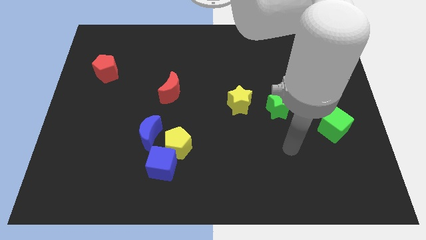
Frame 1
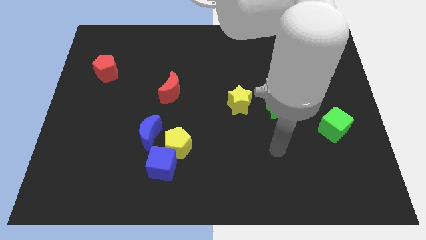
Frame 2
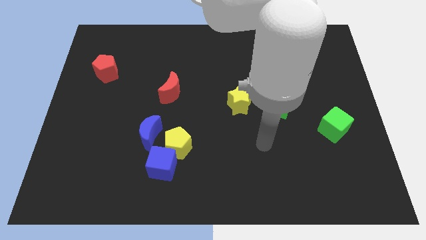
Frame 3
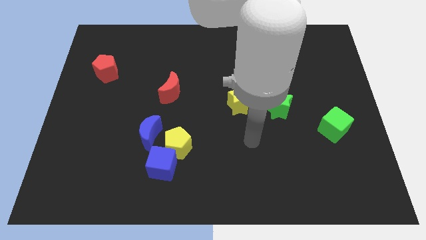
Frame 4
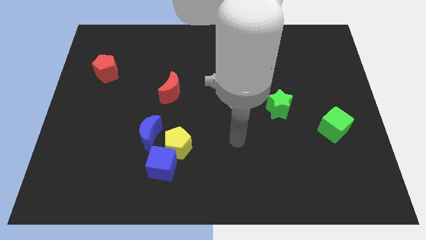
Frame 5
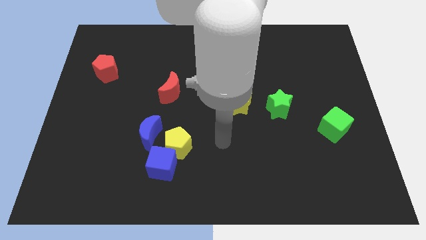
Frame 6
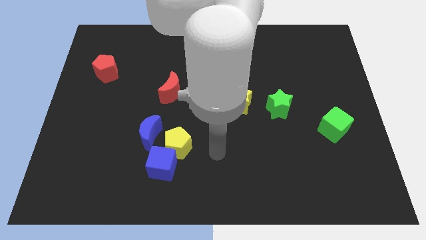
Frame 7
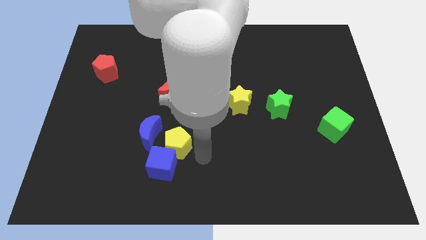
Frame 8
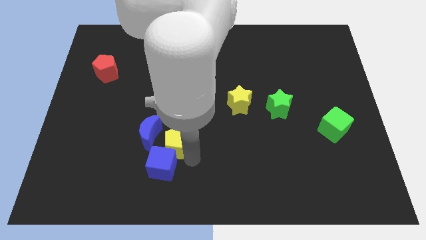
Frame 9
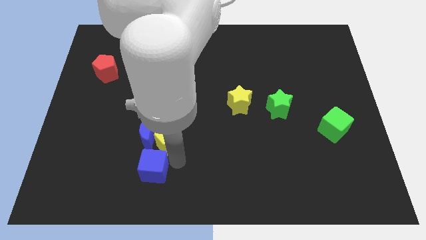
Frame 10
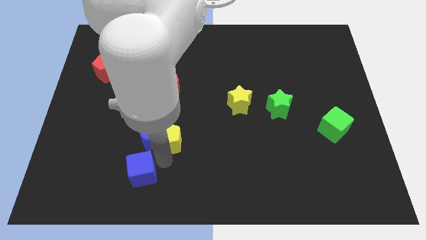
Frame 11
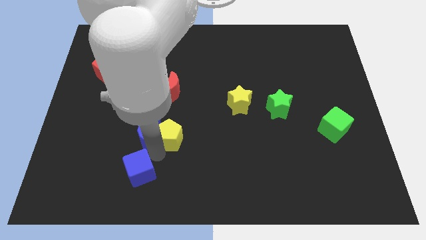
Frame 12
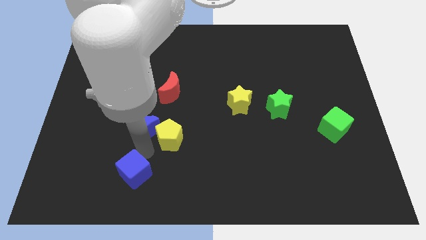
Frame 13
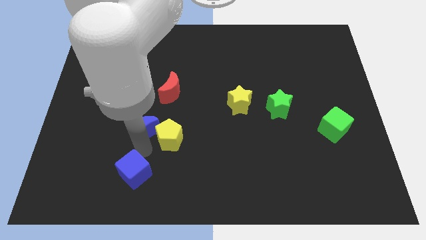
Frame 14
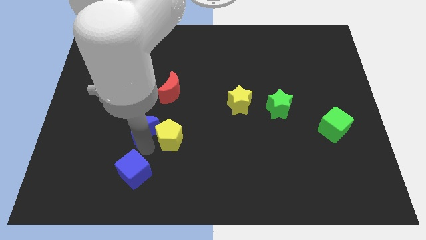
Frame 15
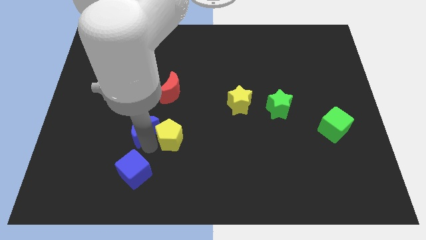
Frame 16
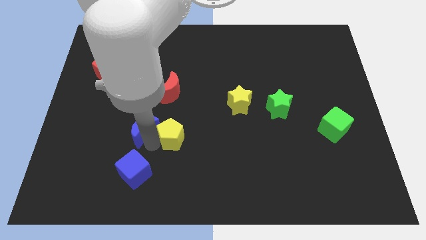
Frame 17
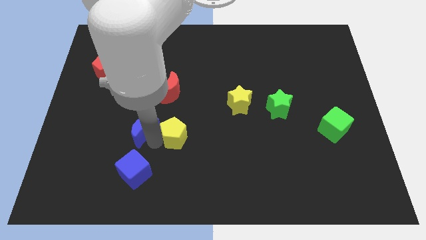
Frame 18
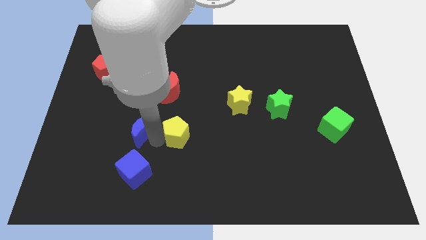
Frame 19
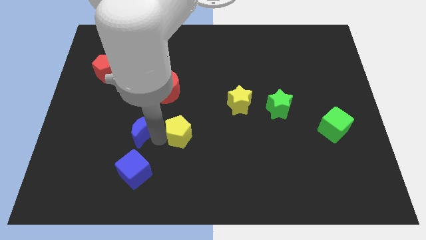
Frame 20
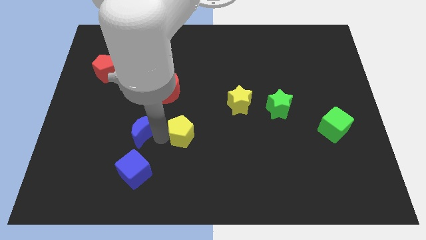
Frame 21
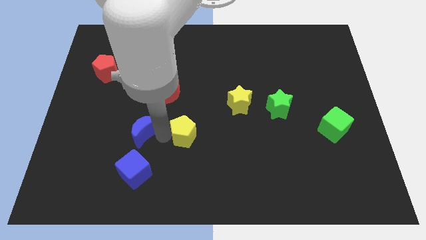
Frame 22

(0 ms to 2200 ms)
move the yellow pentagon away from the blue cube and blue moon

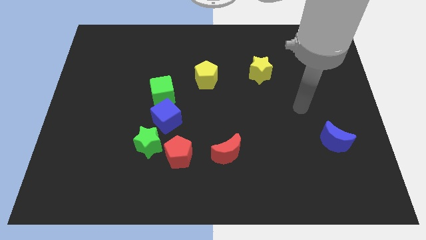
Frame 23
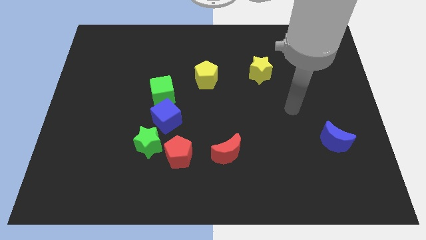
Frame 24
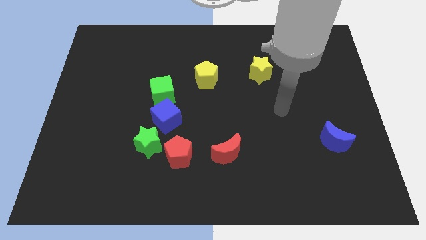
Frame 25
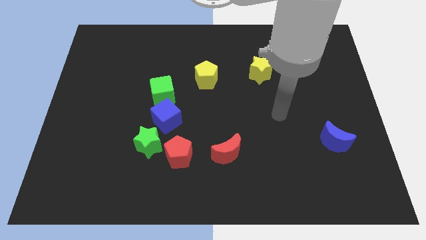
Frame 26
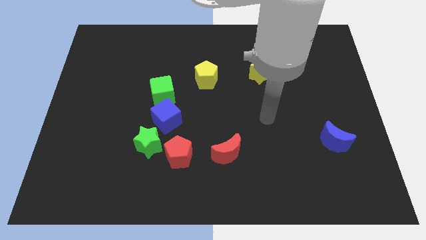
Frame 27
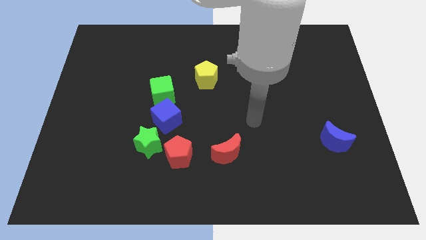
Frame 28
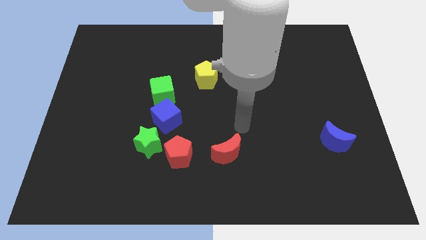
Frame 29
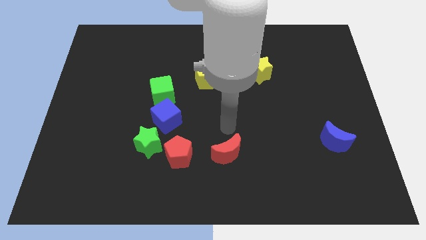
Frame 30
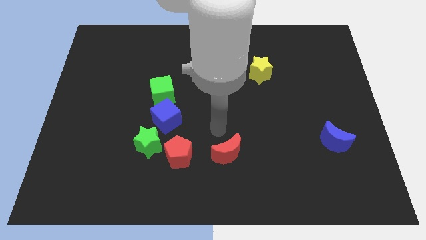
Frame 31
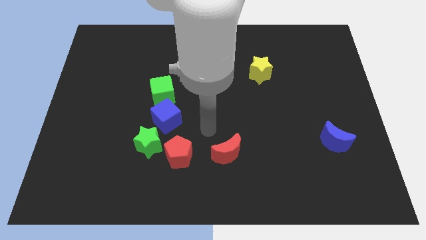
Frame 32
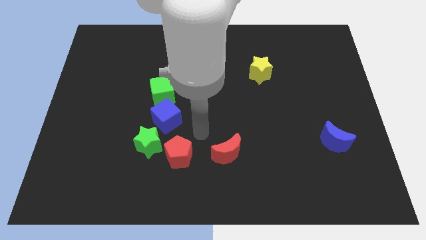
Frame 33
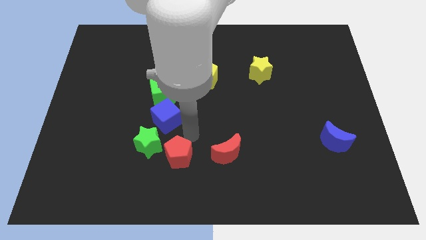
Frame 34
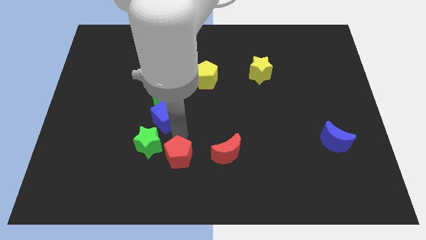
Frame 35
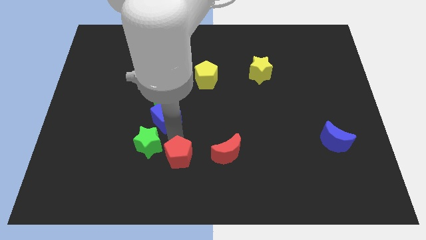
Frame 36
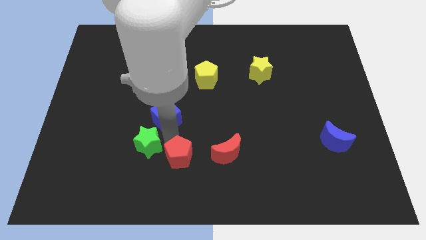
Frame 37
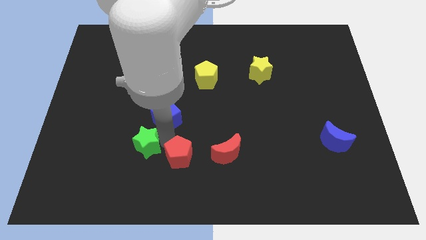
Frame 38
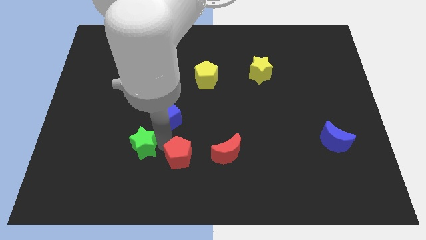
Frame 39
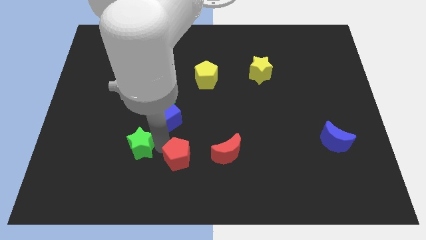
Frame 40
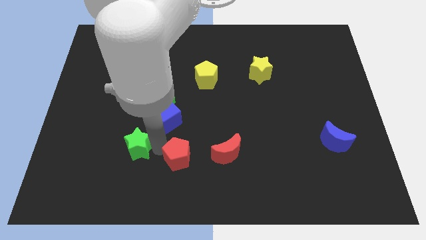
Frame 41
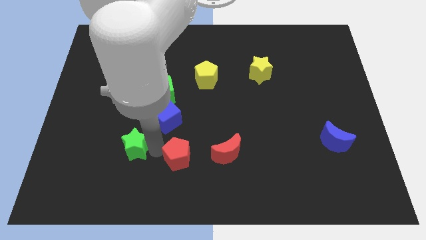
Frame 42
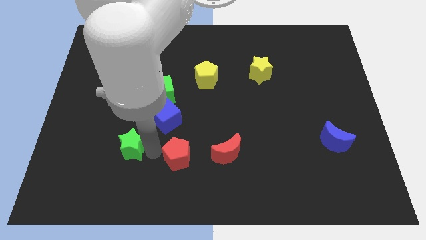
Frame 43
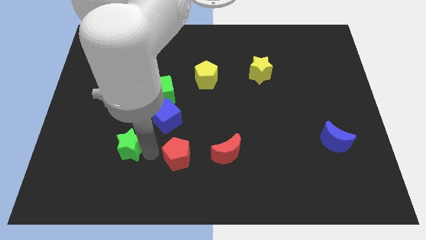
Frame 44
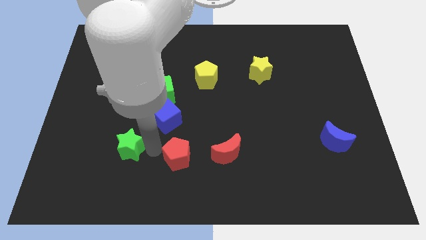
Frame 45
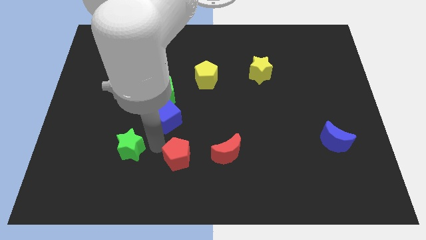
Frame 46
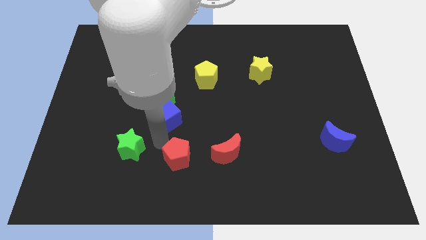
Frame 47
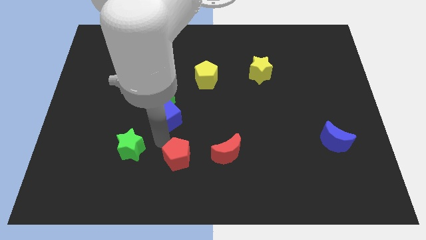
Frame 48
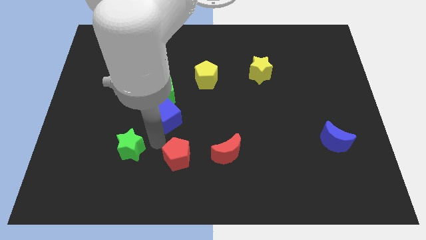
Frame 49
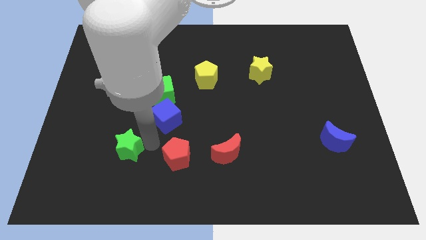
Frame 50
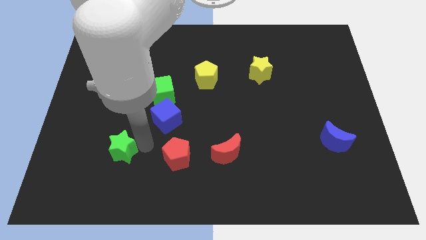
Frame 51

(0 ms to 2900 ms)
pull the green star apart from the red pentagon and blue cube

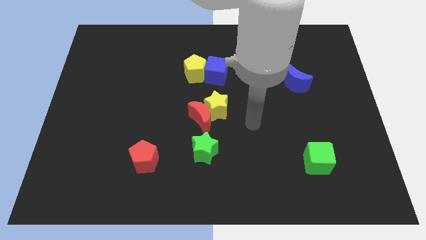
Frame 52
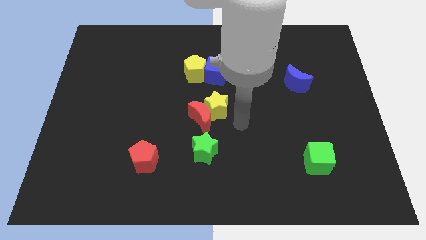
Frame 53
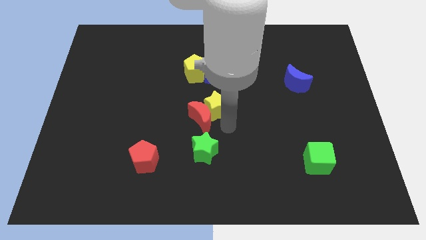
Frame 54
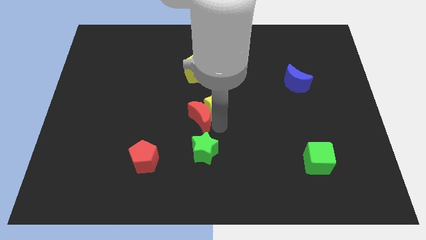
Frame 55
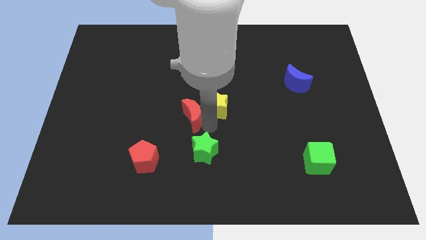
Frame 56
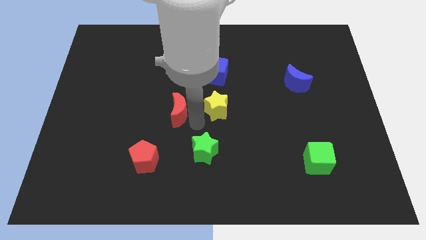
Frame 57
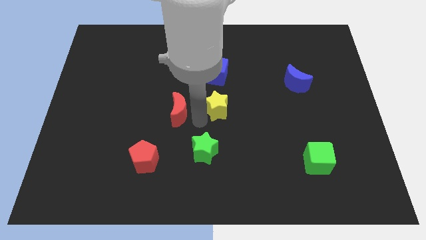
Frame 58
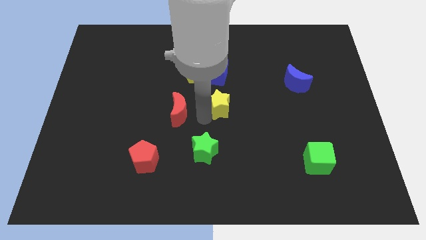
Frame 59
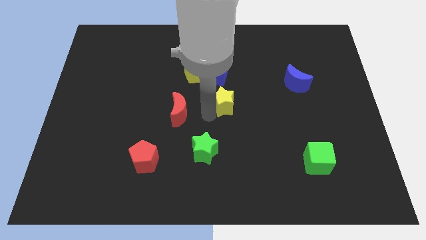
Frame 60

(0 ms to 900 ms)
separate the yellow star from the red moon

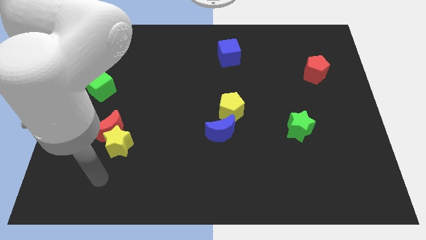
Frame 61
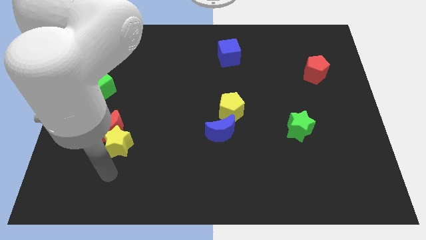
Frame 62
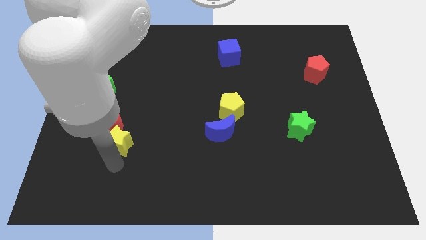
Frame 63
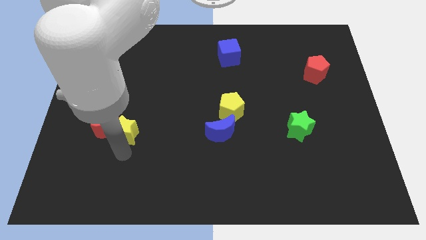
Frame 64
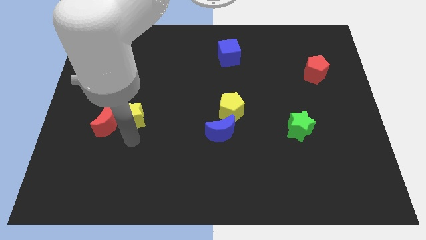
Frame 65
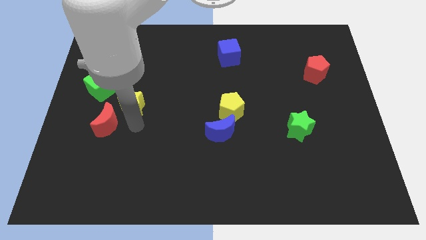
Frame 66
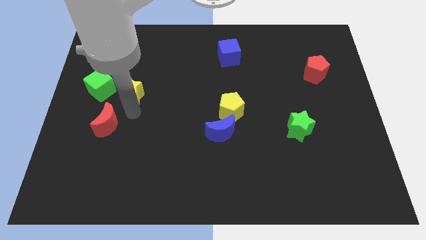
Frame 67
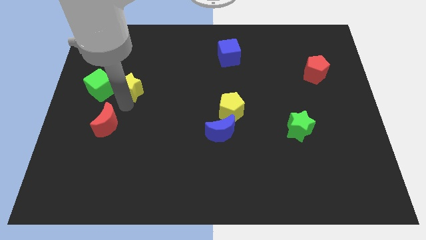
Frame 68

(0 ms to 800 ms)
move the red moon away from the yellow star

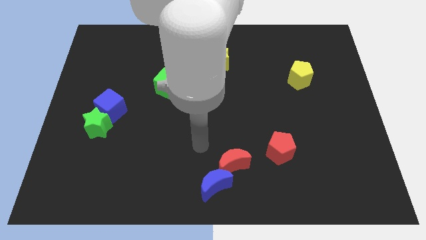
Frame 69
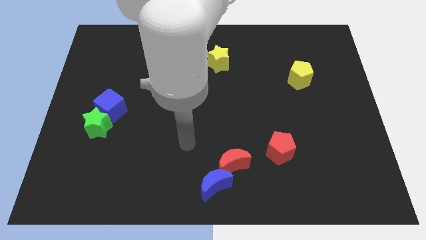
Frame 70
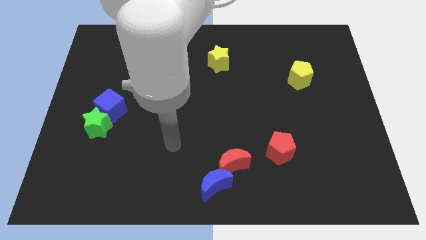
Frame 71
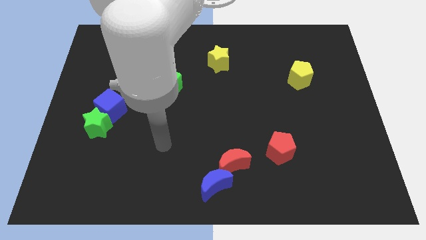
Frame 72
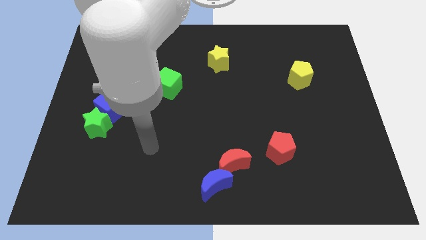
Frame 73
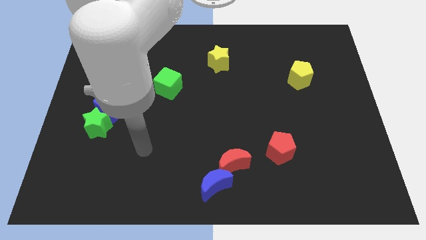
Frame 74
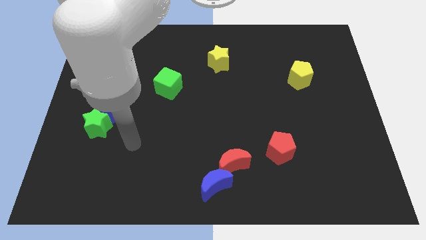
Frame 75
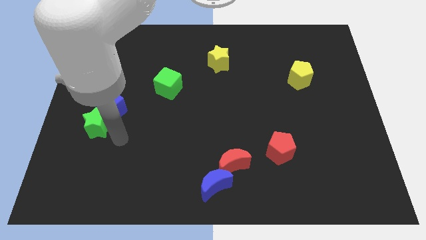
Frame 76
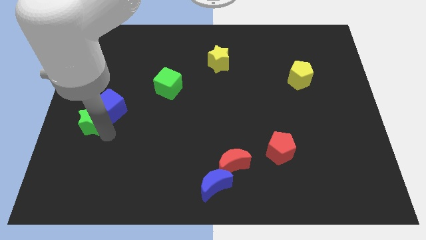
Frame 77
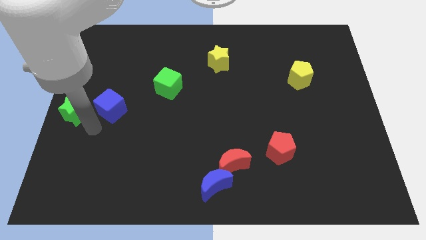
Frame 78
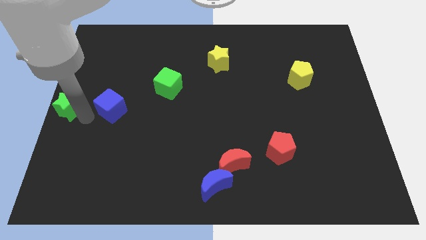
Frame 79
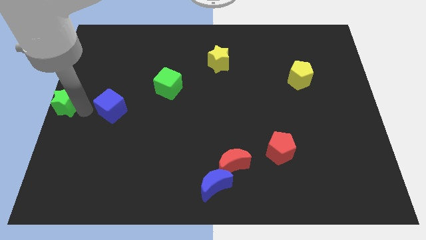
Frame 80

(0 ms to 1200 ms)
move the blue cube away from the green star

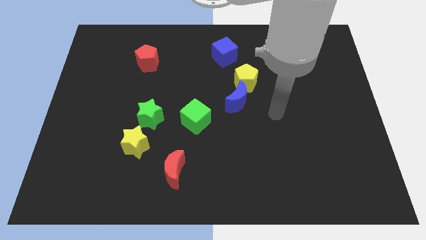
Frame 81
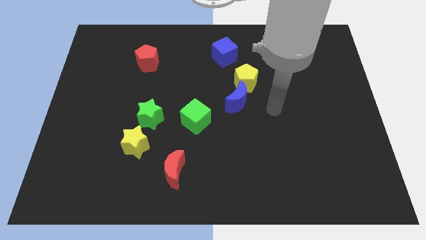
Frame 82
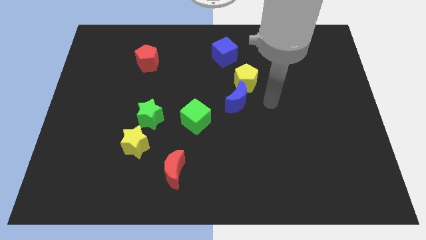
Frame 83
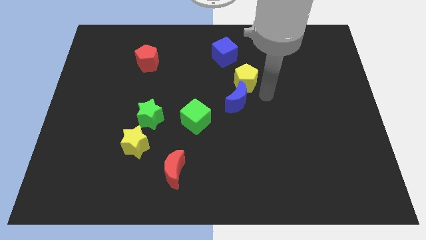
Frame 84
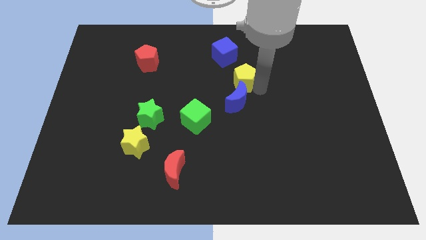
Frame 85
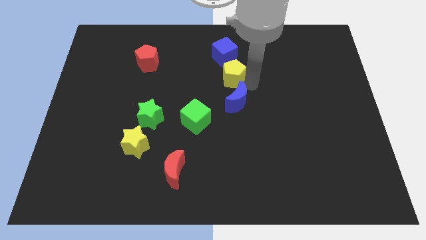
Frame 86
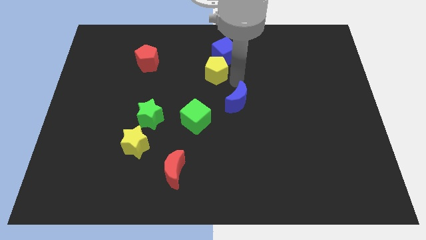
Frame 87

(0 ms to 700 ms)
move the blue moon away from the yellow pentagon

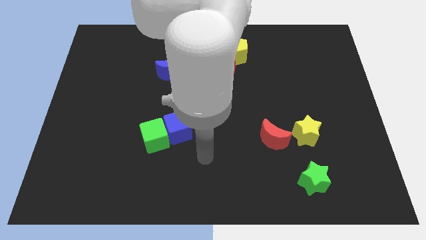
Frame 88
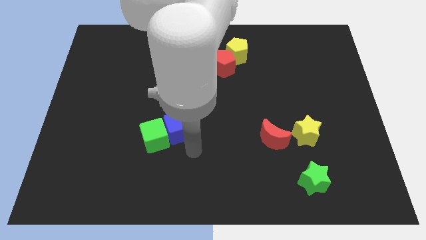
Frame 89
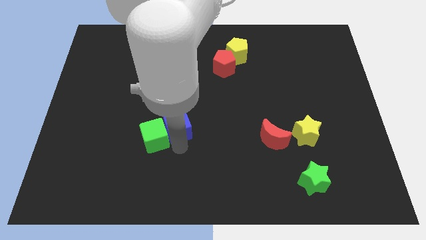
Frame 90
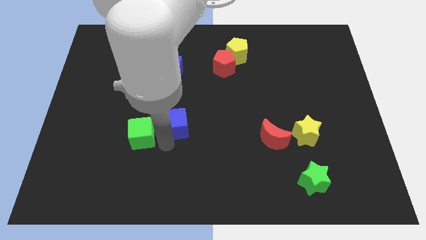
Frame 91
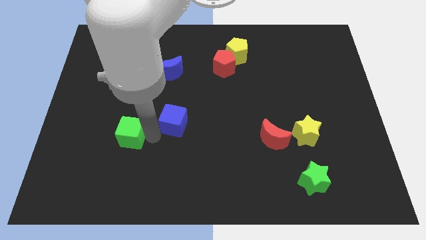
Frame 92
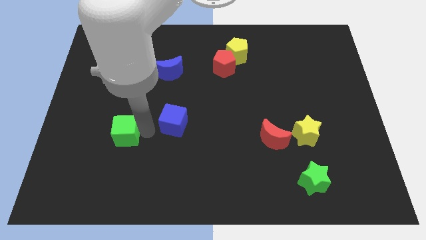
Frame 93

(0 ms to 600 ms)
pull the blue cube apart from the green cube
